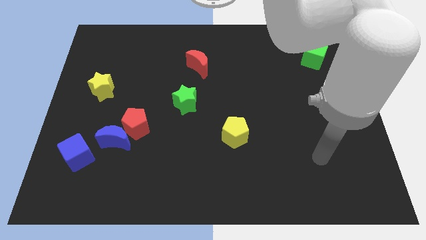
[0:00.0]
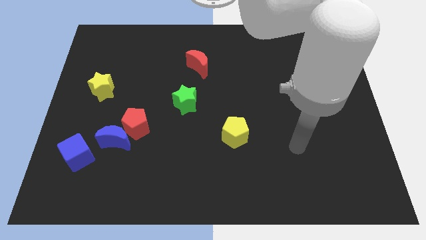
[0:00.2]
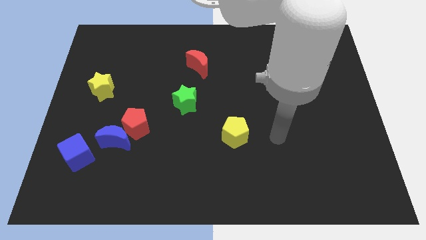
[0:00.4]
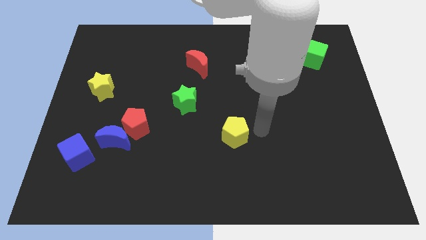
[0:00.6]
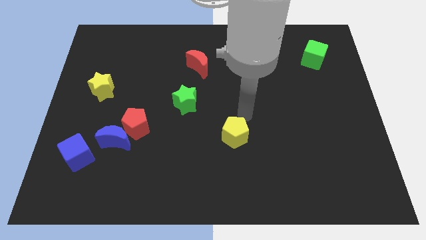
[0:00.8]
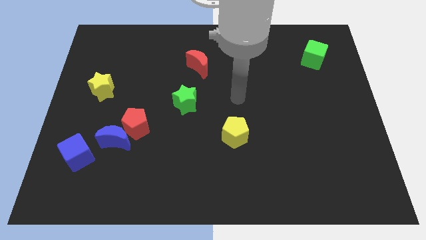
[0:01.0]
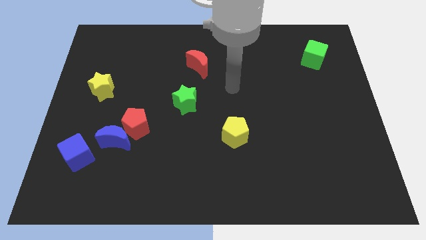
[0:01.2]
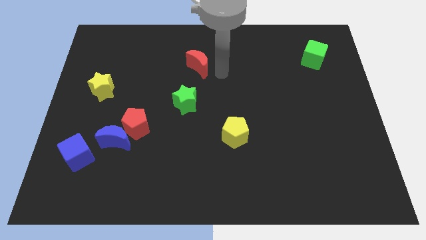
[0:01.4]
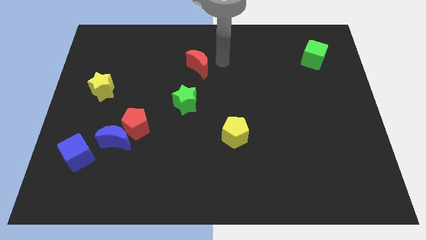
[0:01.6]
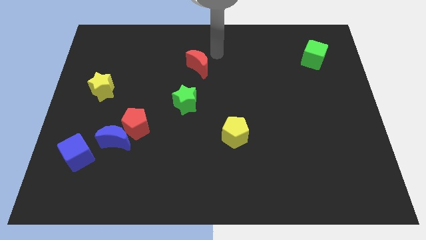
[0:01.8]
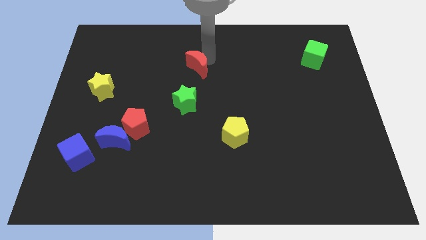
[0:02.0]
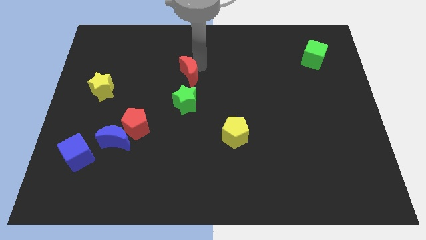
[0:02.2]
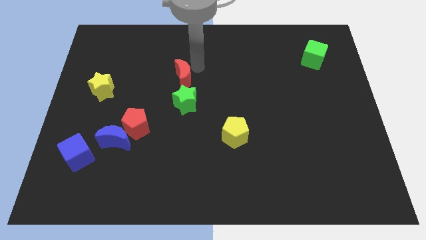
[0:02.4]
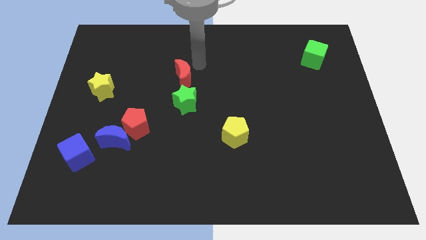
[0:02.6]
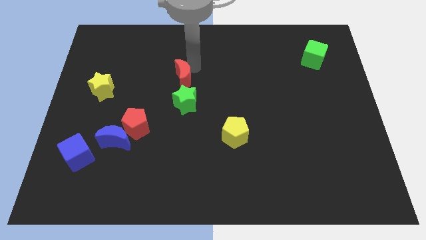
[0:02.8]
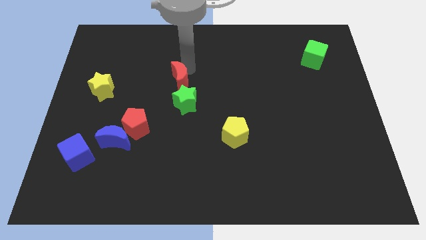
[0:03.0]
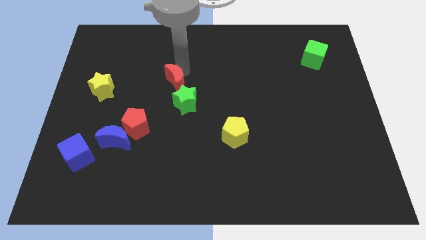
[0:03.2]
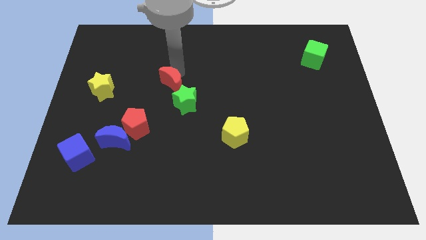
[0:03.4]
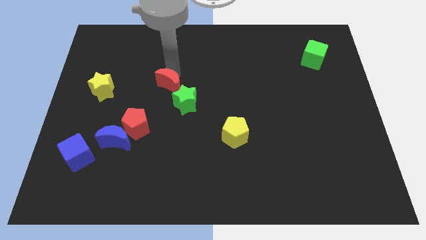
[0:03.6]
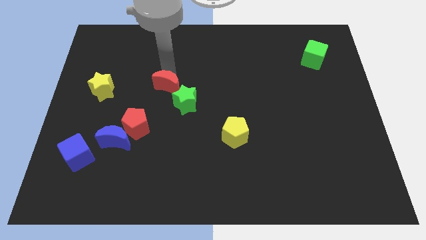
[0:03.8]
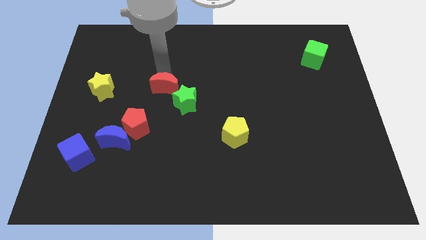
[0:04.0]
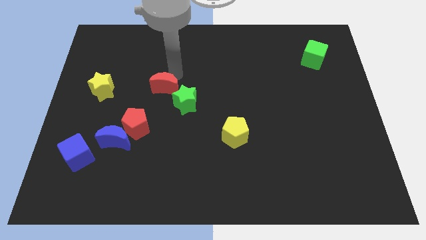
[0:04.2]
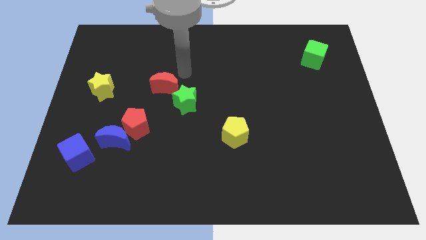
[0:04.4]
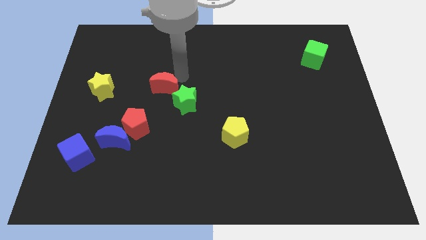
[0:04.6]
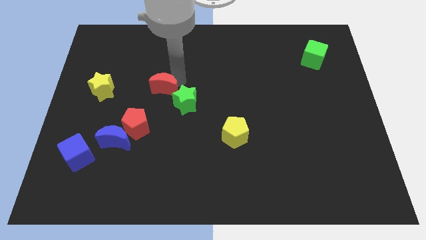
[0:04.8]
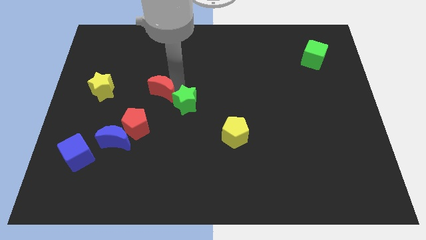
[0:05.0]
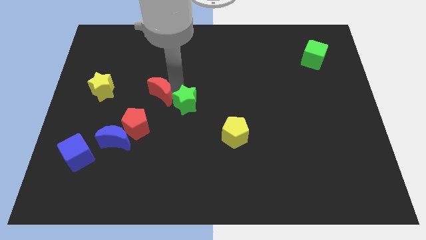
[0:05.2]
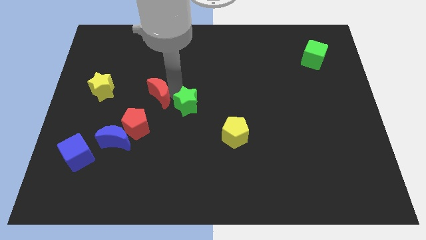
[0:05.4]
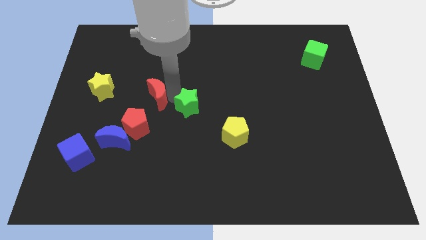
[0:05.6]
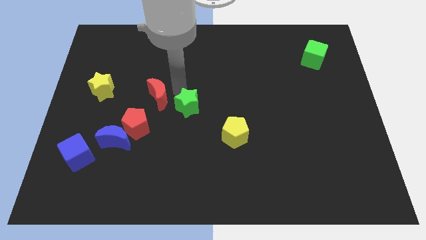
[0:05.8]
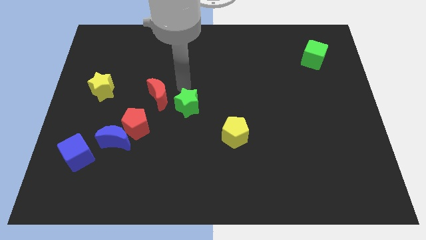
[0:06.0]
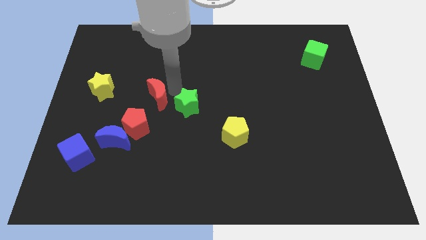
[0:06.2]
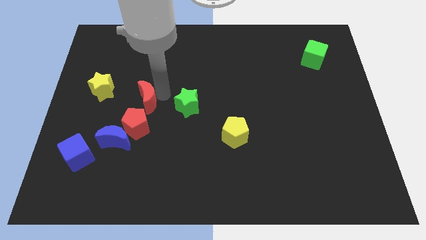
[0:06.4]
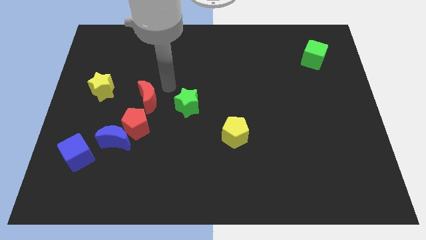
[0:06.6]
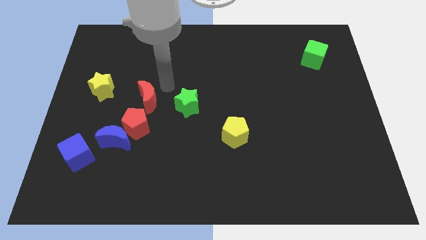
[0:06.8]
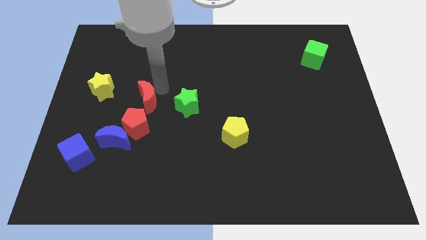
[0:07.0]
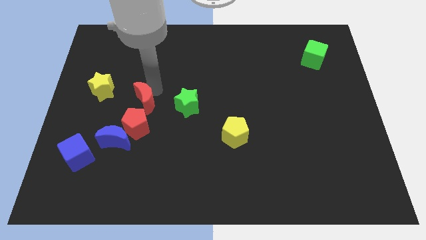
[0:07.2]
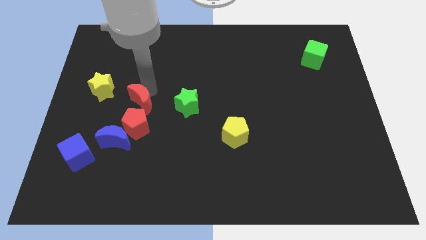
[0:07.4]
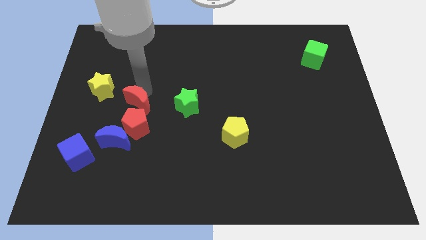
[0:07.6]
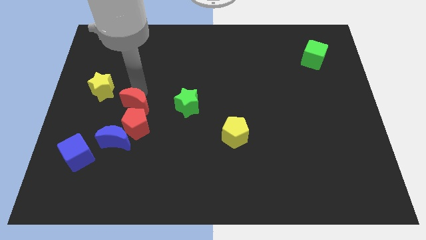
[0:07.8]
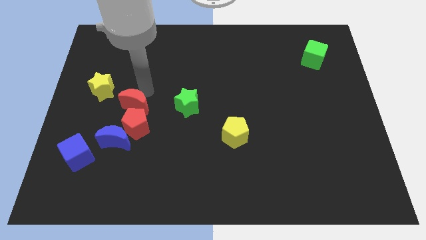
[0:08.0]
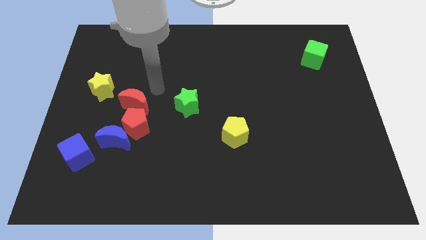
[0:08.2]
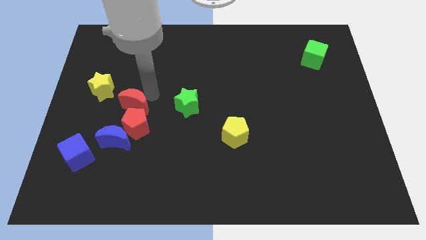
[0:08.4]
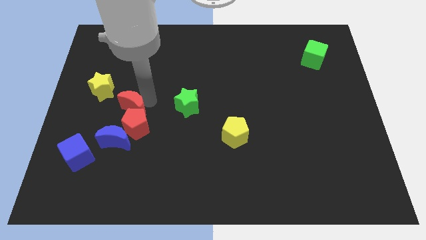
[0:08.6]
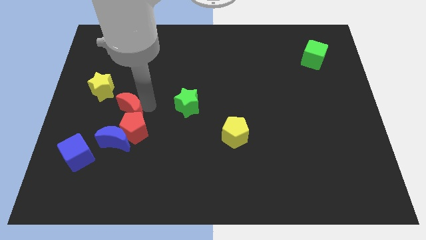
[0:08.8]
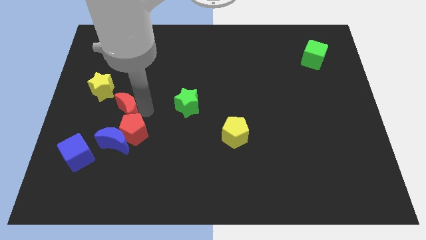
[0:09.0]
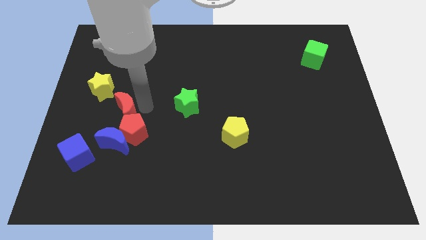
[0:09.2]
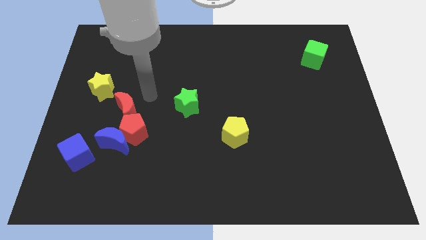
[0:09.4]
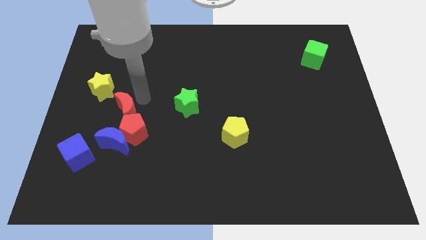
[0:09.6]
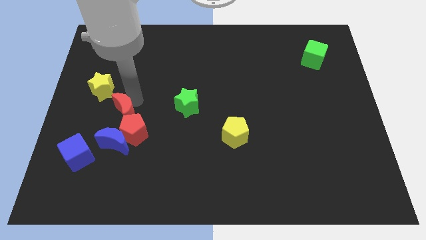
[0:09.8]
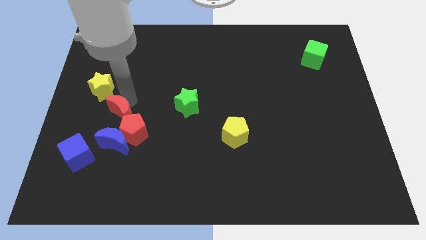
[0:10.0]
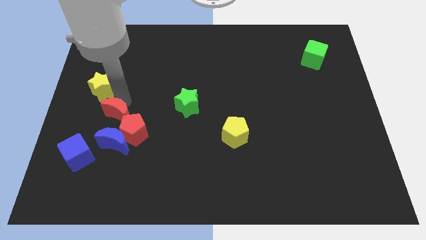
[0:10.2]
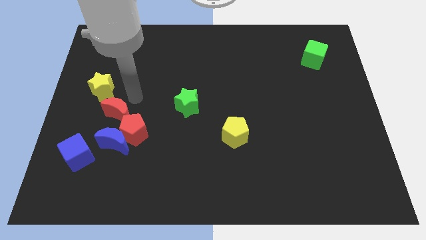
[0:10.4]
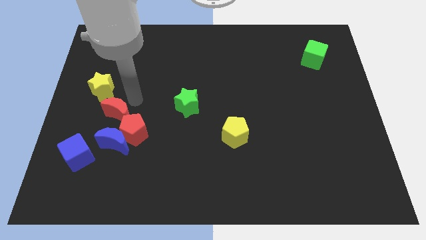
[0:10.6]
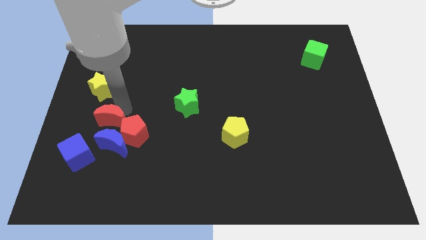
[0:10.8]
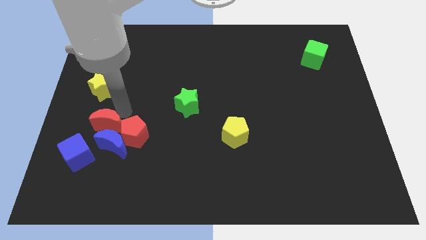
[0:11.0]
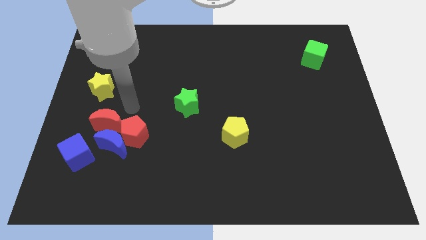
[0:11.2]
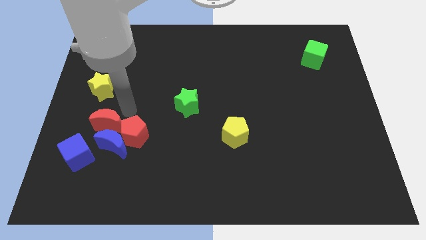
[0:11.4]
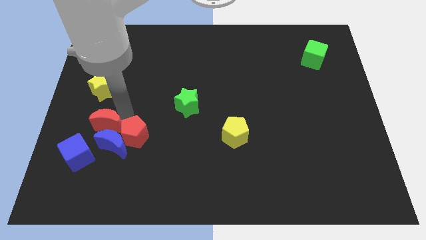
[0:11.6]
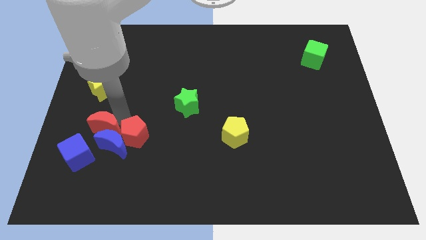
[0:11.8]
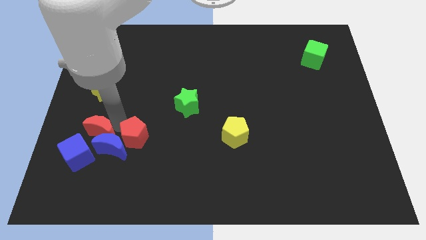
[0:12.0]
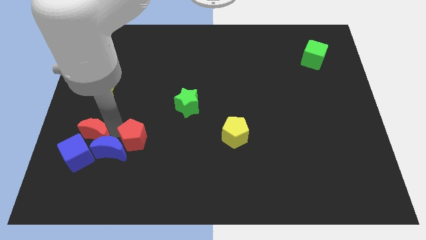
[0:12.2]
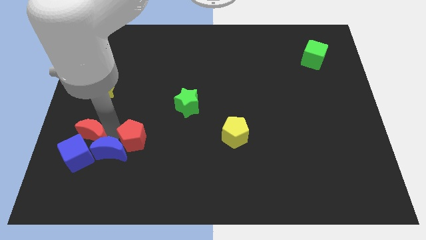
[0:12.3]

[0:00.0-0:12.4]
move the red moon next to the blue cube
